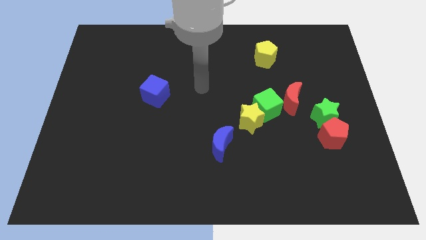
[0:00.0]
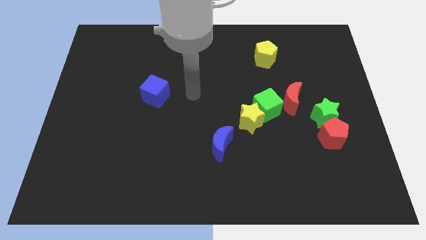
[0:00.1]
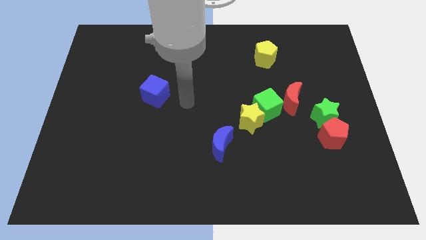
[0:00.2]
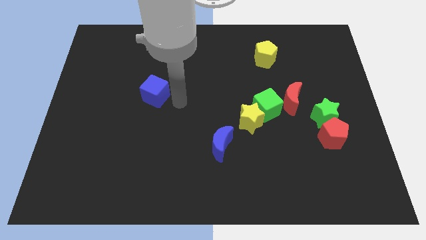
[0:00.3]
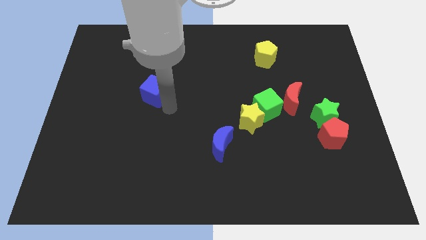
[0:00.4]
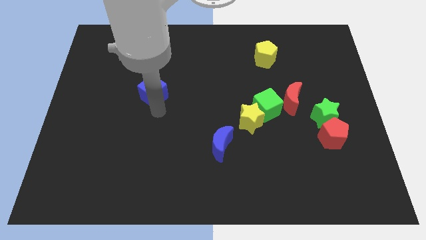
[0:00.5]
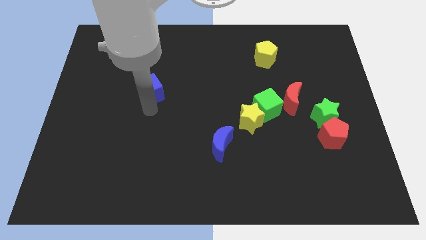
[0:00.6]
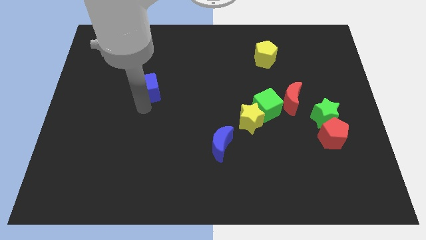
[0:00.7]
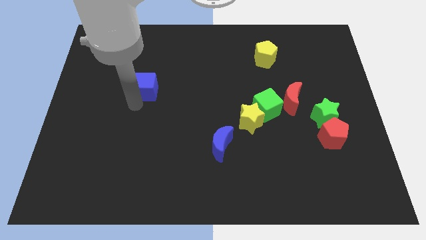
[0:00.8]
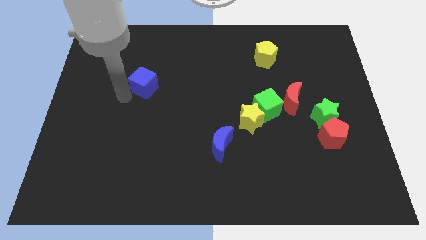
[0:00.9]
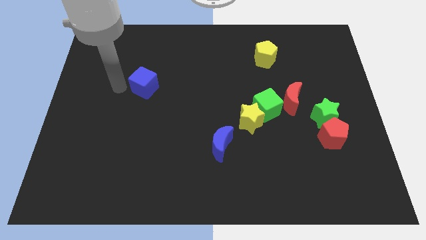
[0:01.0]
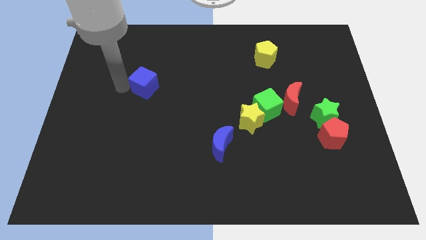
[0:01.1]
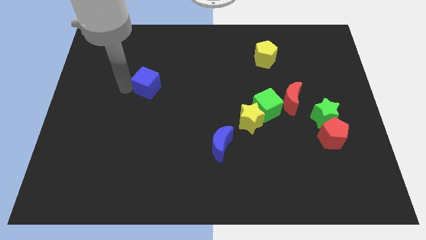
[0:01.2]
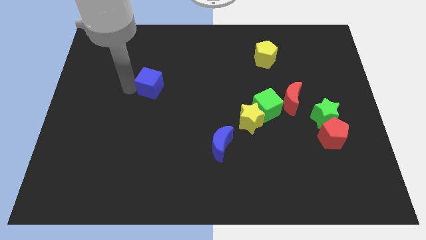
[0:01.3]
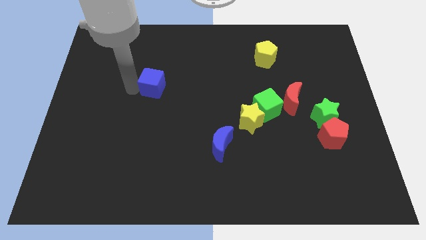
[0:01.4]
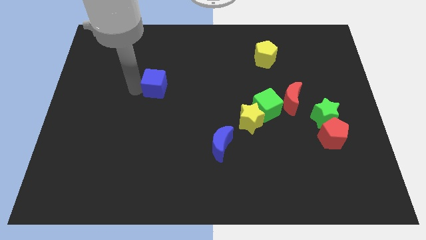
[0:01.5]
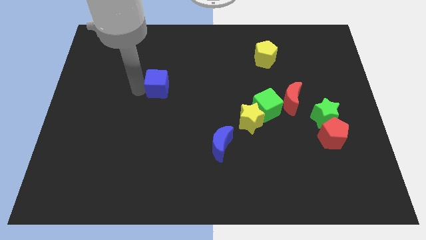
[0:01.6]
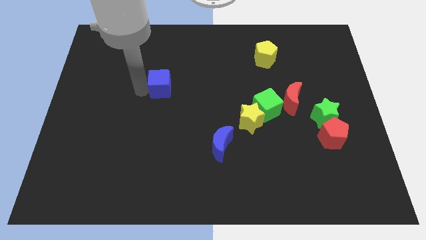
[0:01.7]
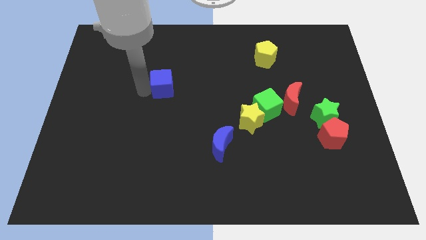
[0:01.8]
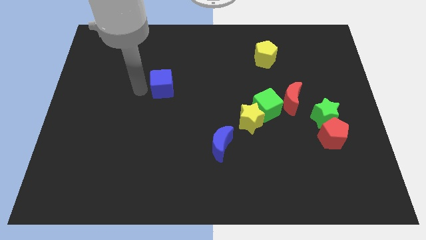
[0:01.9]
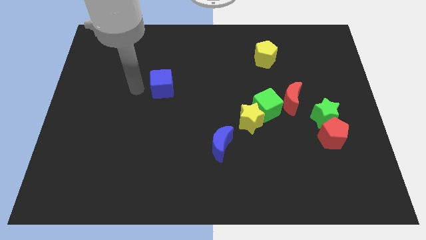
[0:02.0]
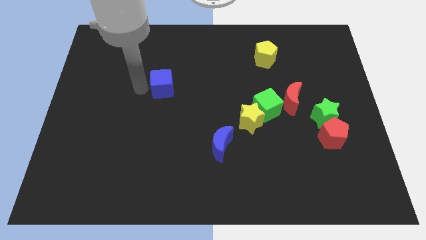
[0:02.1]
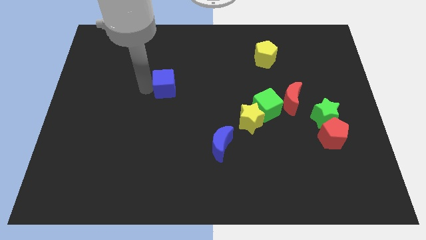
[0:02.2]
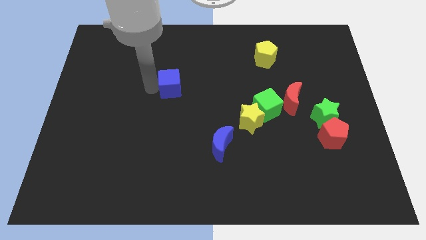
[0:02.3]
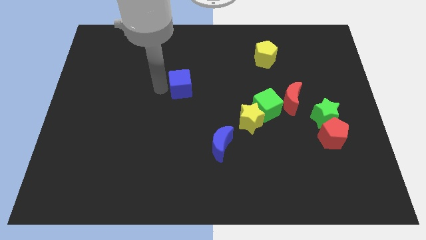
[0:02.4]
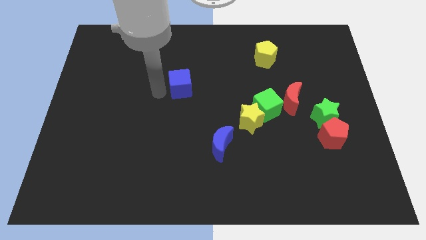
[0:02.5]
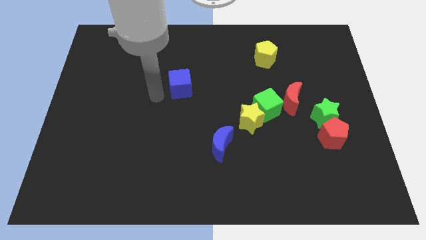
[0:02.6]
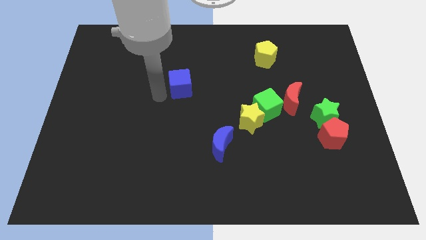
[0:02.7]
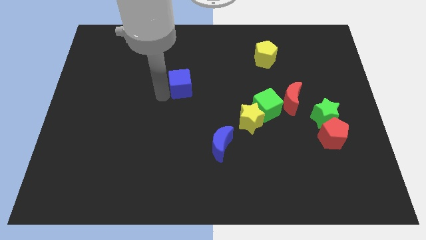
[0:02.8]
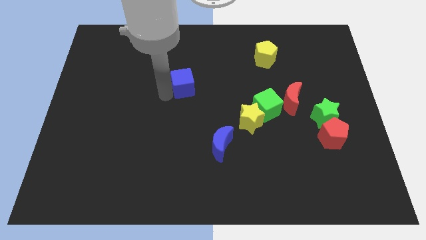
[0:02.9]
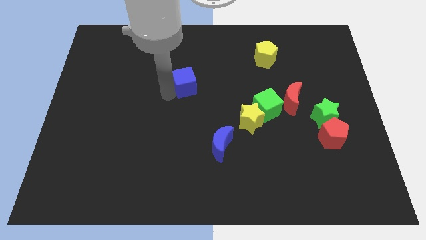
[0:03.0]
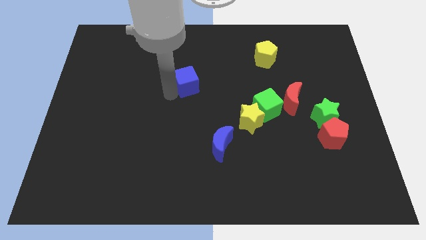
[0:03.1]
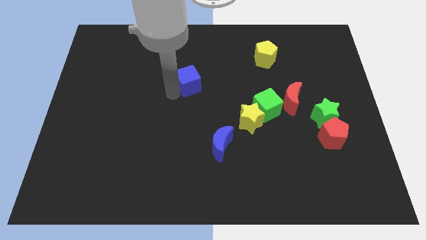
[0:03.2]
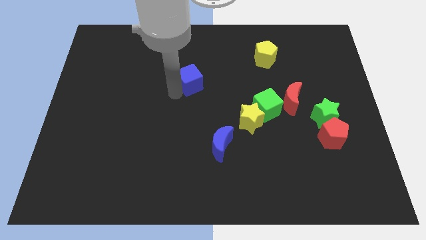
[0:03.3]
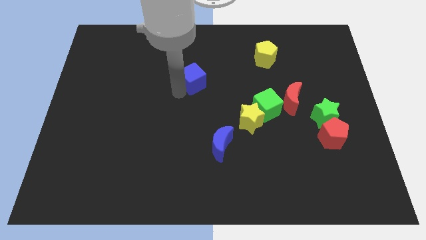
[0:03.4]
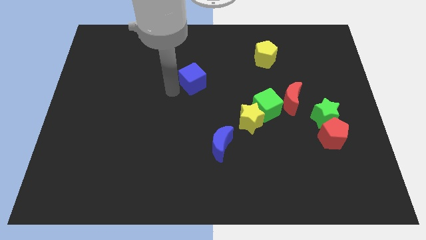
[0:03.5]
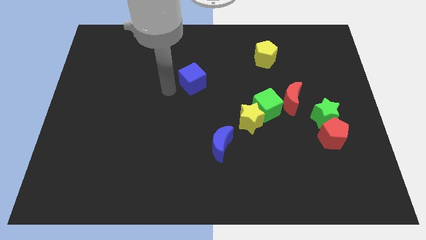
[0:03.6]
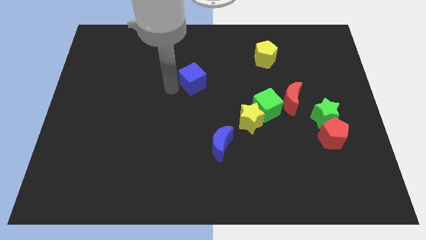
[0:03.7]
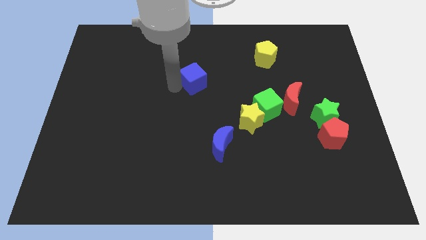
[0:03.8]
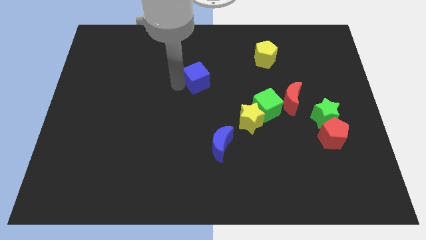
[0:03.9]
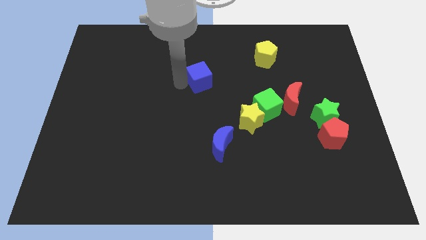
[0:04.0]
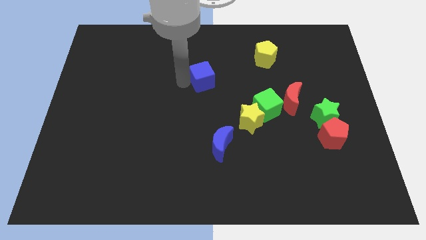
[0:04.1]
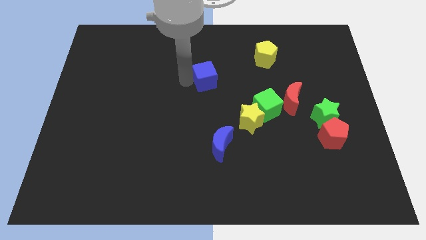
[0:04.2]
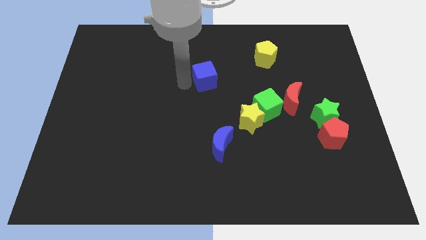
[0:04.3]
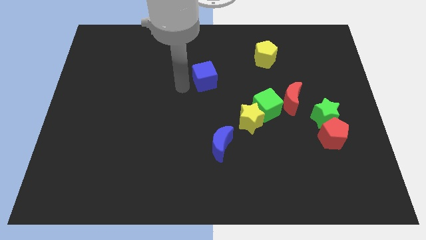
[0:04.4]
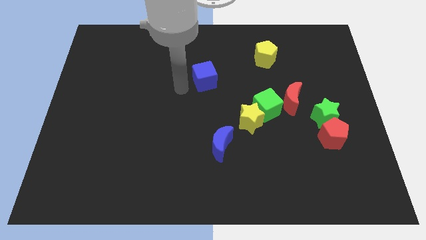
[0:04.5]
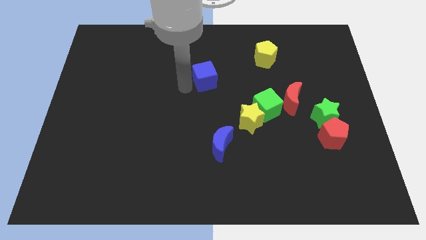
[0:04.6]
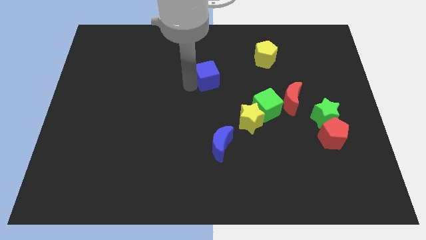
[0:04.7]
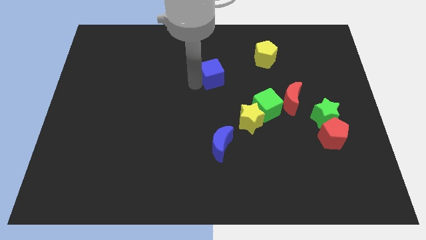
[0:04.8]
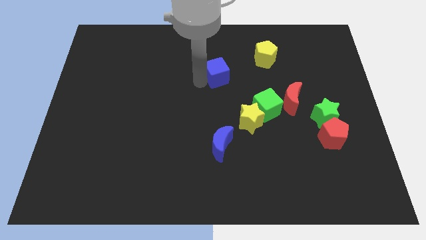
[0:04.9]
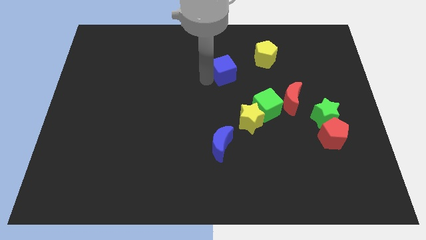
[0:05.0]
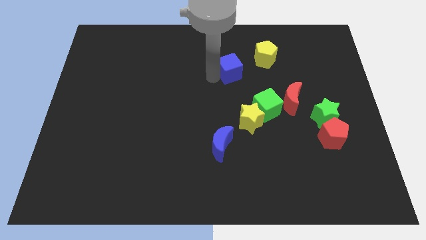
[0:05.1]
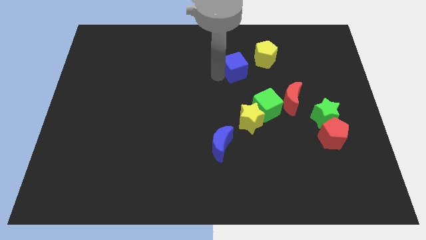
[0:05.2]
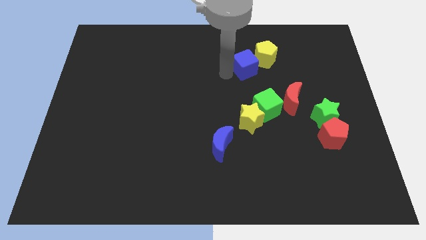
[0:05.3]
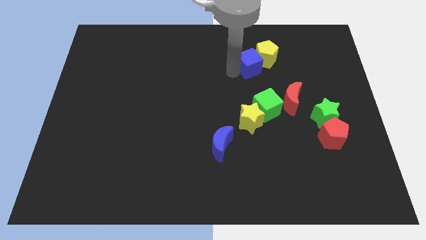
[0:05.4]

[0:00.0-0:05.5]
slide the blue cube towards the yellow pentagon

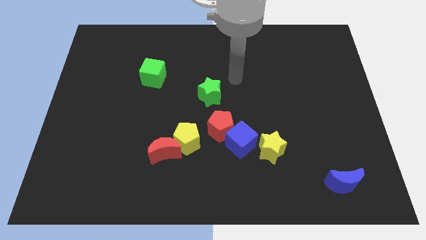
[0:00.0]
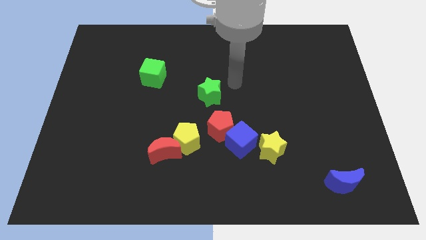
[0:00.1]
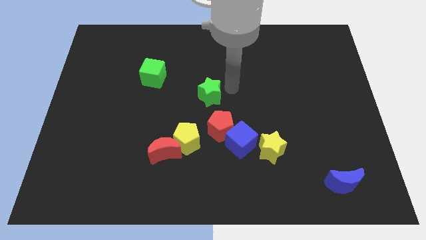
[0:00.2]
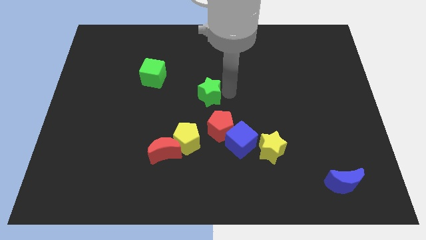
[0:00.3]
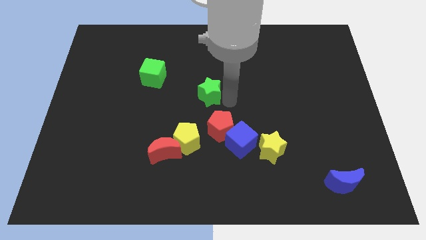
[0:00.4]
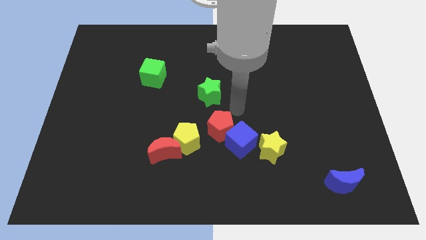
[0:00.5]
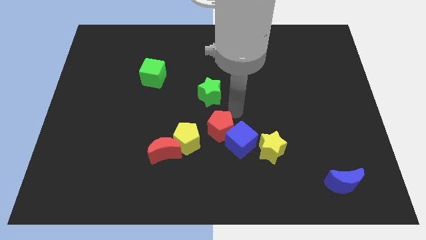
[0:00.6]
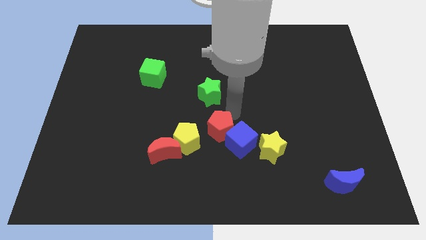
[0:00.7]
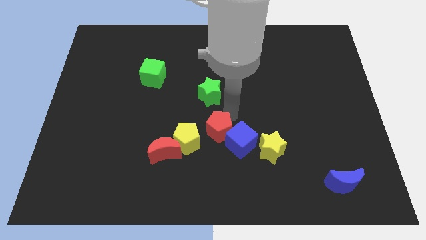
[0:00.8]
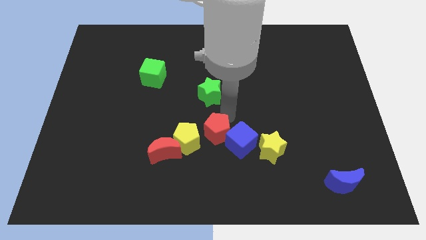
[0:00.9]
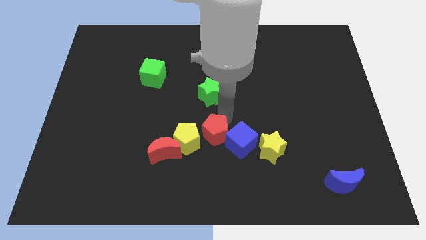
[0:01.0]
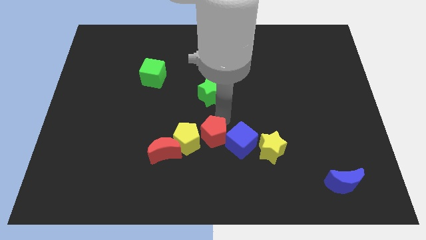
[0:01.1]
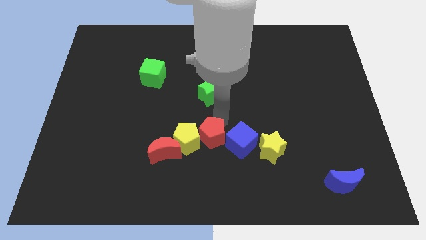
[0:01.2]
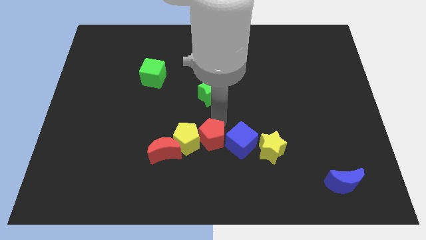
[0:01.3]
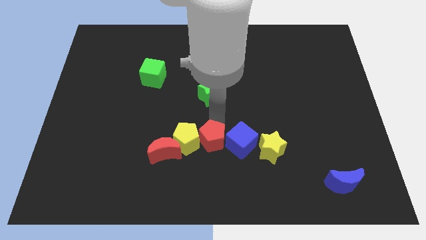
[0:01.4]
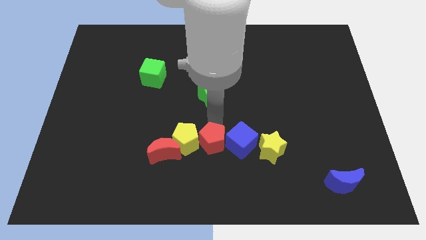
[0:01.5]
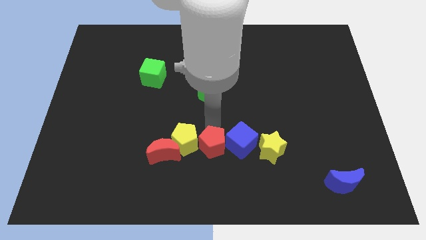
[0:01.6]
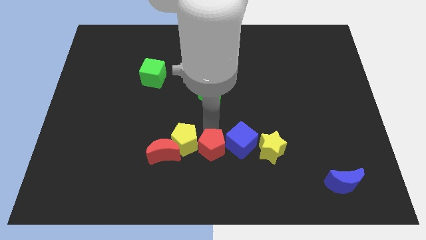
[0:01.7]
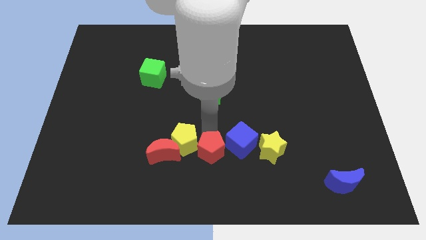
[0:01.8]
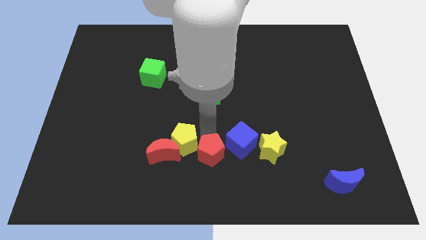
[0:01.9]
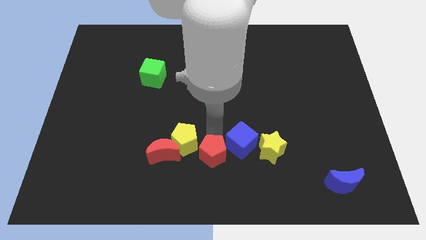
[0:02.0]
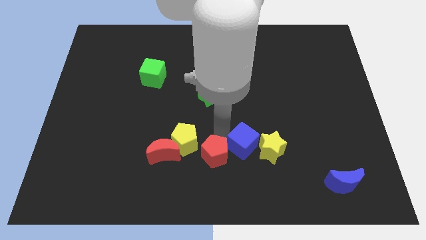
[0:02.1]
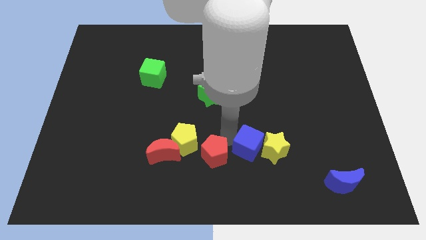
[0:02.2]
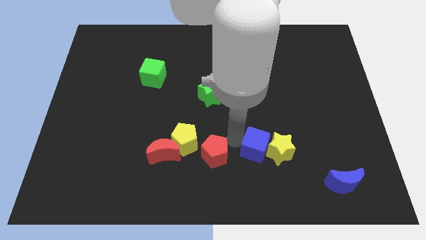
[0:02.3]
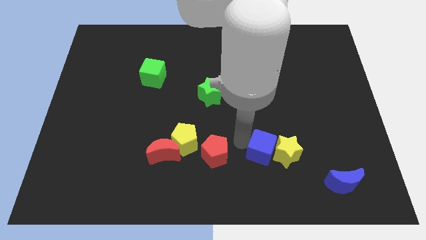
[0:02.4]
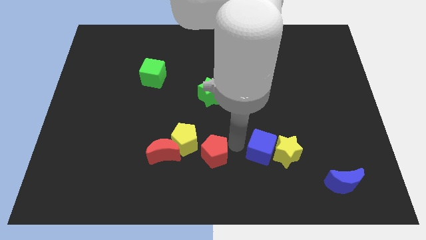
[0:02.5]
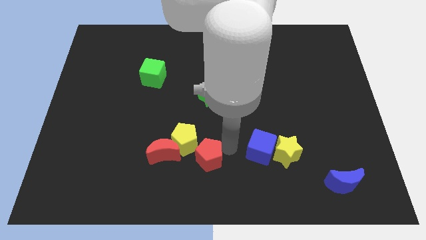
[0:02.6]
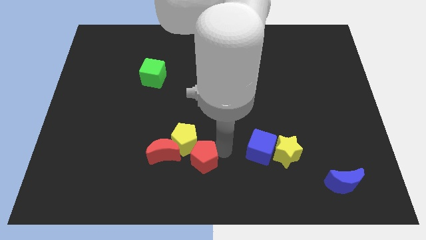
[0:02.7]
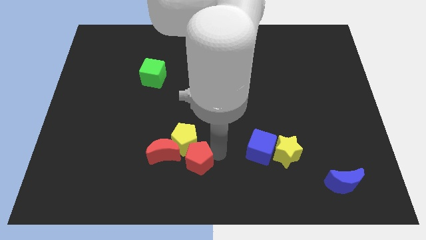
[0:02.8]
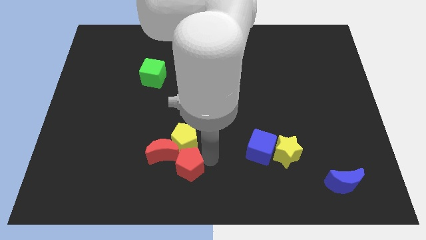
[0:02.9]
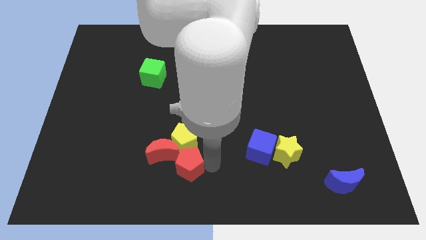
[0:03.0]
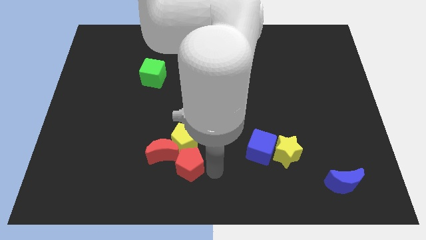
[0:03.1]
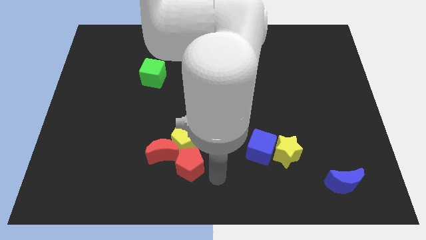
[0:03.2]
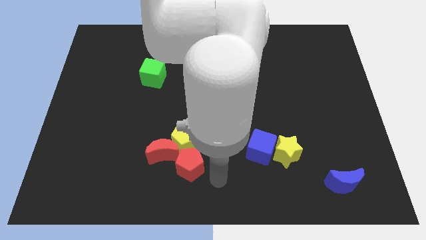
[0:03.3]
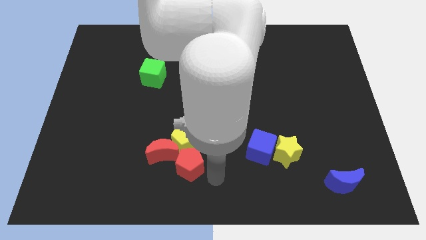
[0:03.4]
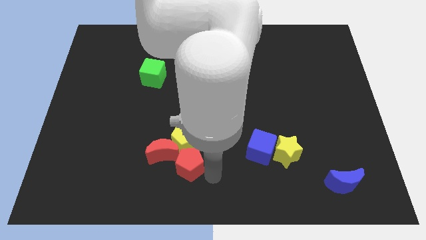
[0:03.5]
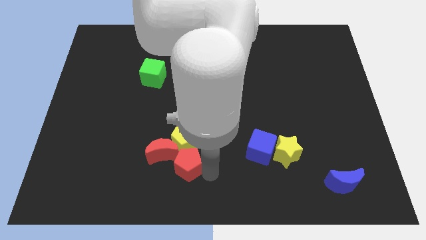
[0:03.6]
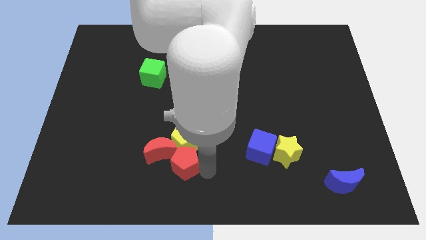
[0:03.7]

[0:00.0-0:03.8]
push the red pentagon close to the red moon
